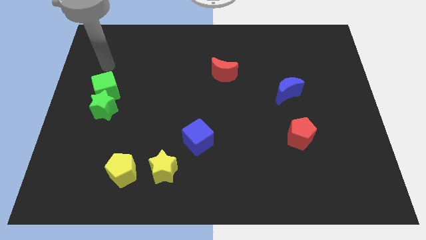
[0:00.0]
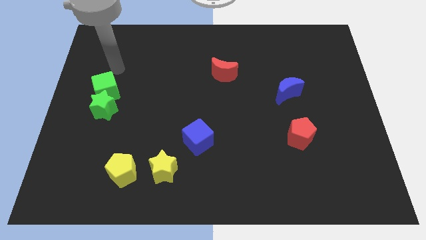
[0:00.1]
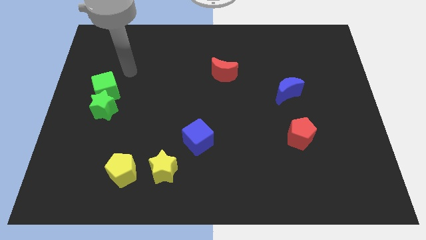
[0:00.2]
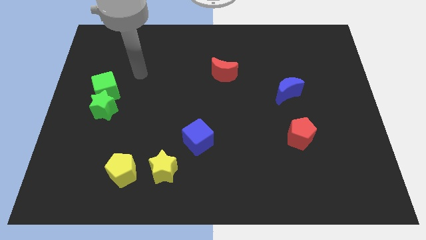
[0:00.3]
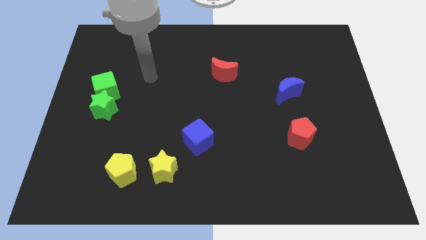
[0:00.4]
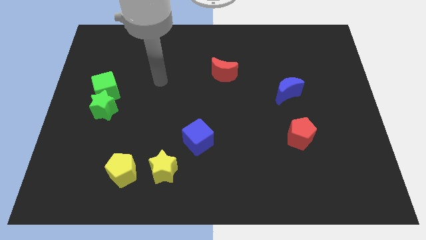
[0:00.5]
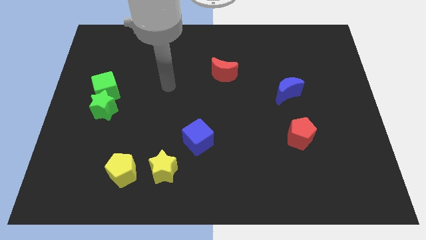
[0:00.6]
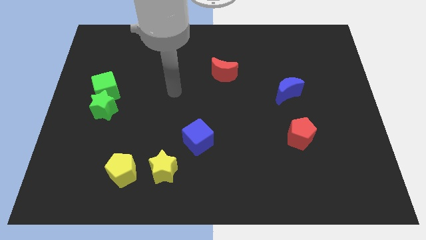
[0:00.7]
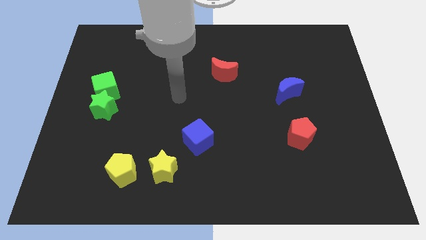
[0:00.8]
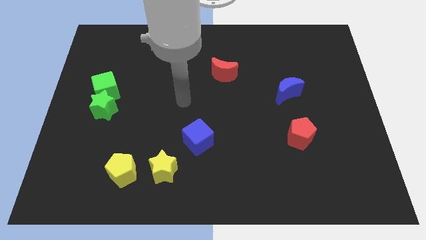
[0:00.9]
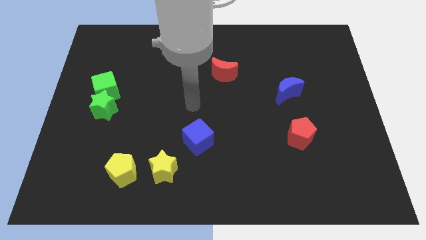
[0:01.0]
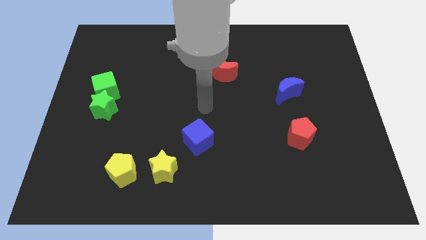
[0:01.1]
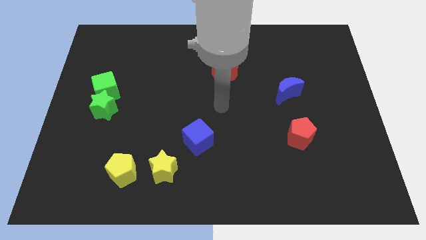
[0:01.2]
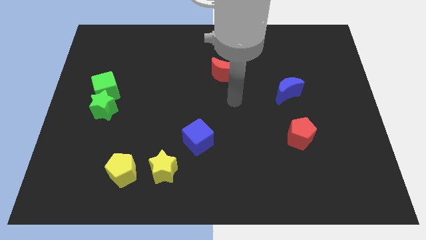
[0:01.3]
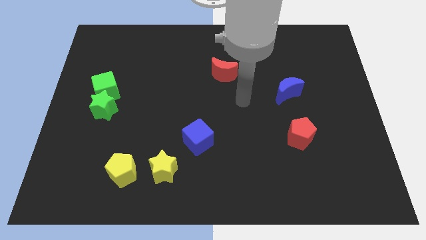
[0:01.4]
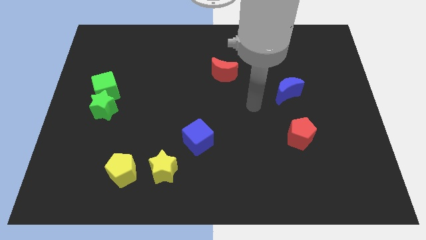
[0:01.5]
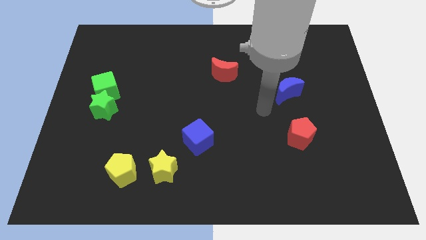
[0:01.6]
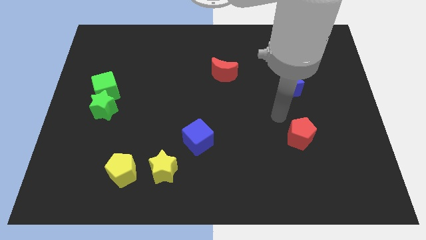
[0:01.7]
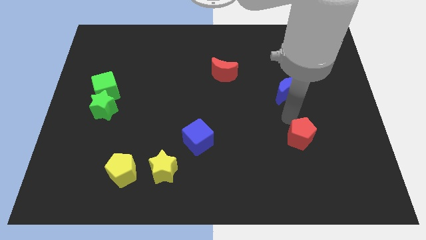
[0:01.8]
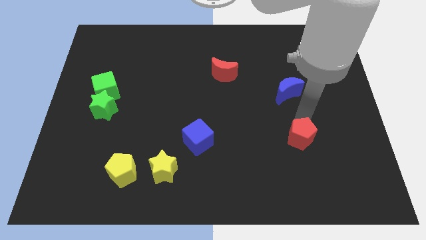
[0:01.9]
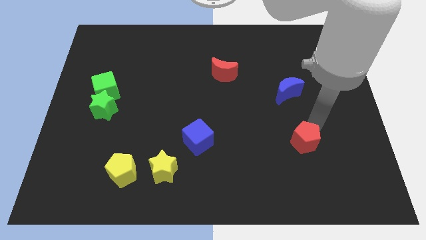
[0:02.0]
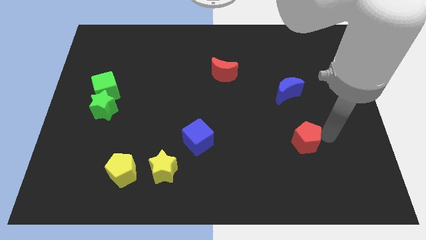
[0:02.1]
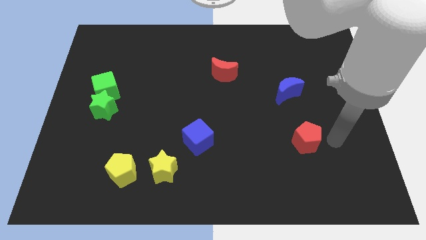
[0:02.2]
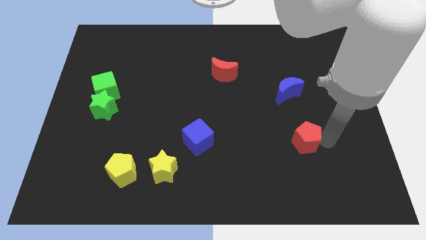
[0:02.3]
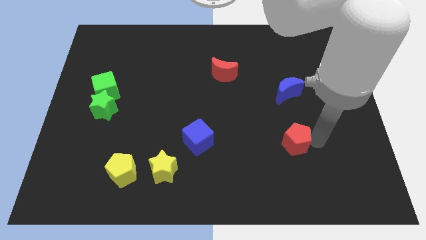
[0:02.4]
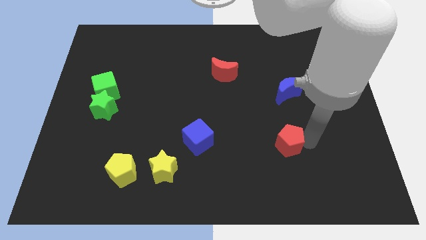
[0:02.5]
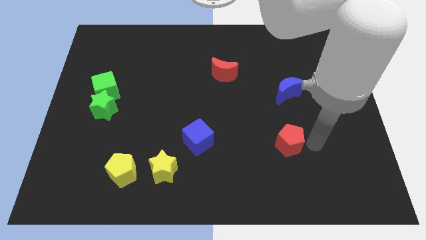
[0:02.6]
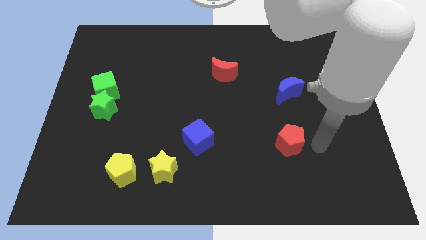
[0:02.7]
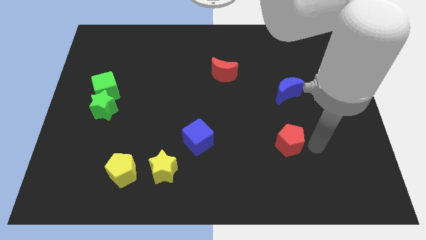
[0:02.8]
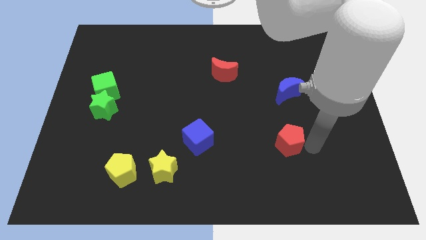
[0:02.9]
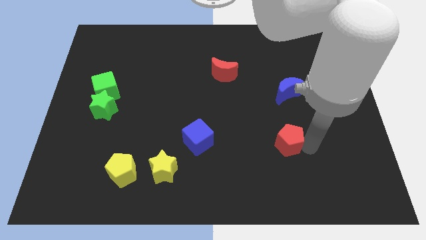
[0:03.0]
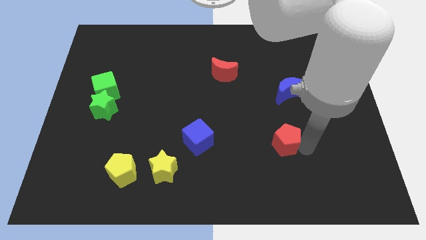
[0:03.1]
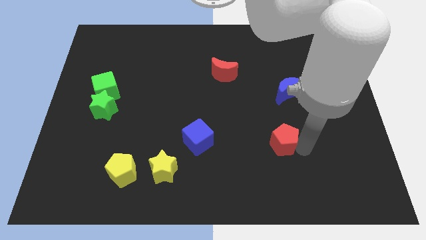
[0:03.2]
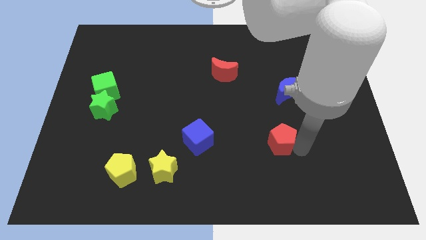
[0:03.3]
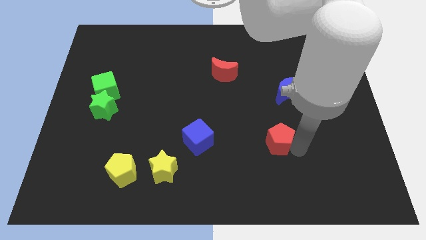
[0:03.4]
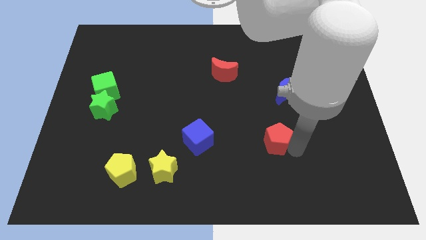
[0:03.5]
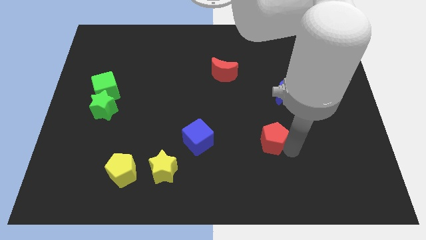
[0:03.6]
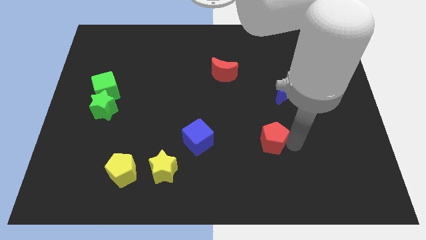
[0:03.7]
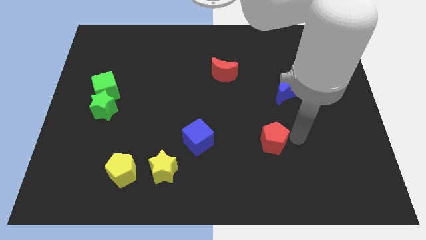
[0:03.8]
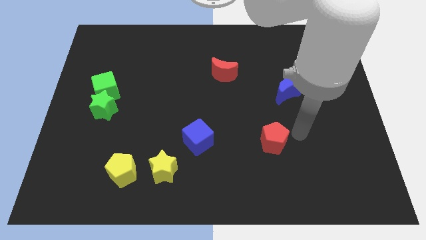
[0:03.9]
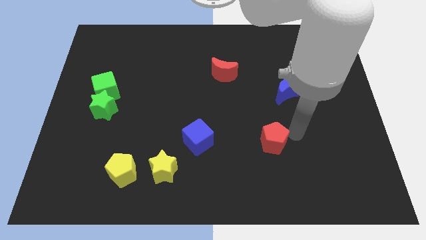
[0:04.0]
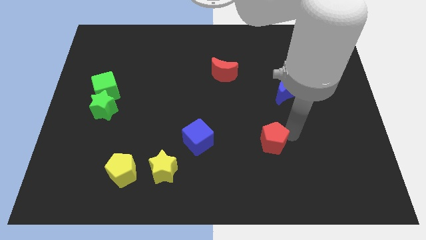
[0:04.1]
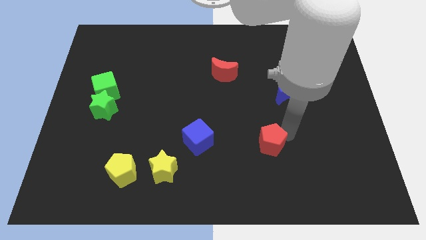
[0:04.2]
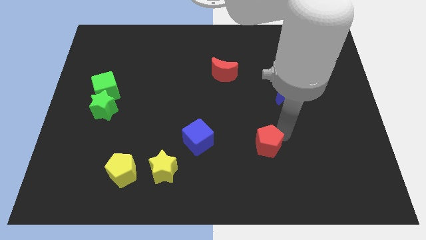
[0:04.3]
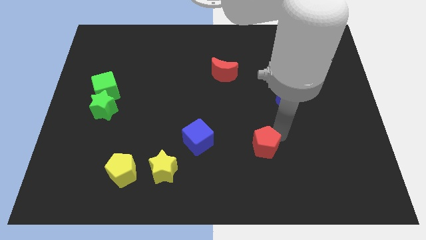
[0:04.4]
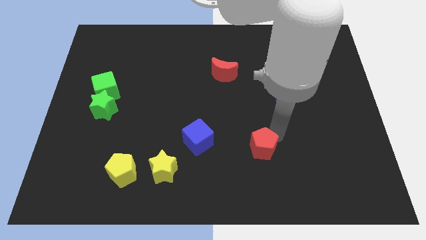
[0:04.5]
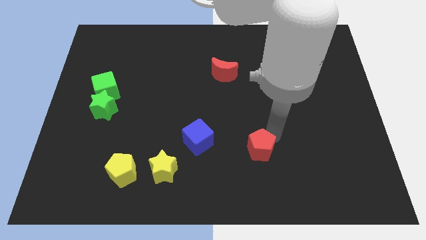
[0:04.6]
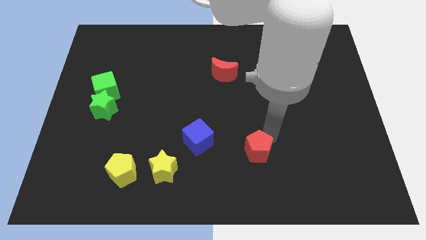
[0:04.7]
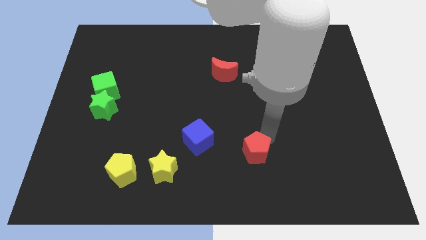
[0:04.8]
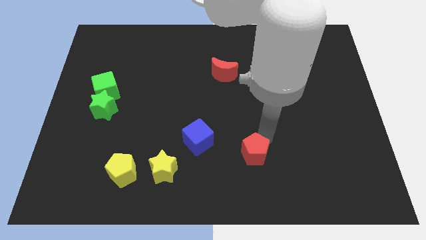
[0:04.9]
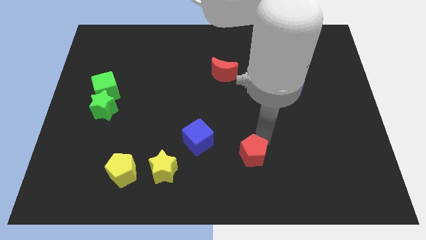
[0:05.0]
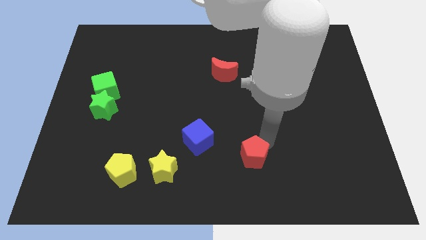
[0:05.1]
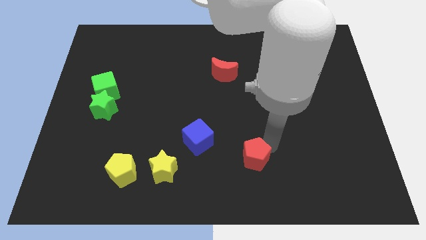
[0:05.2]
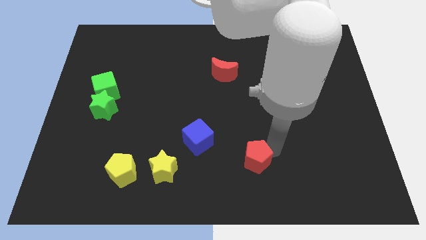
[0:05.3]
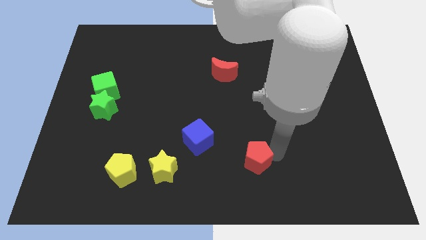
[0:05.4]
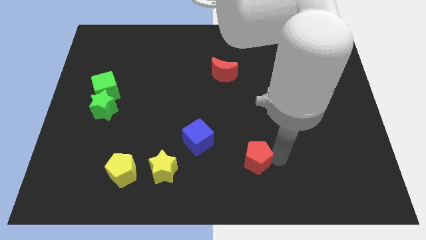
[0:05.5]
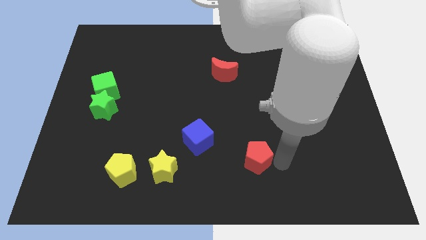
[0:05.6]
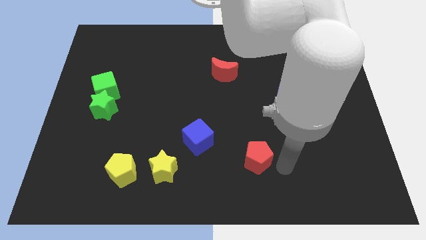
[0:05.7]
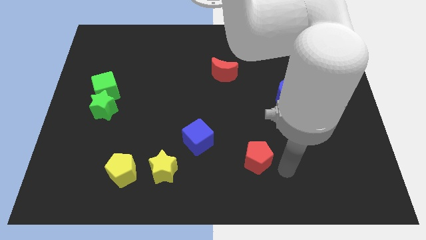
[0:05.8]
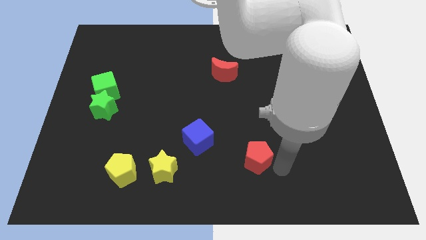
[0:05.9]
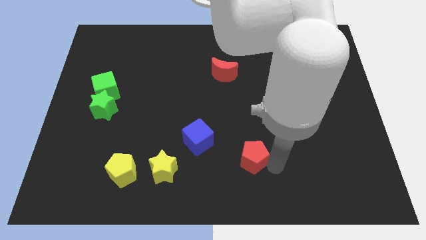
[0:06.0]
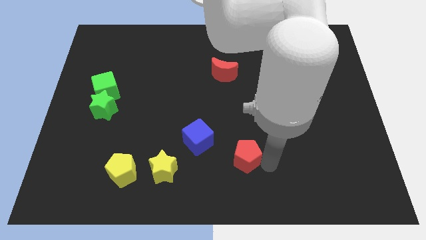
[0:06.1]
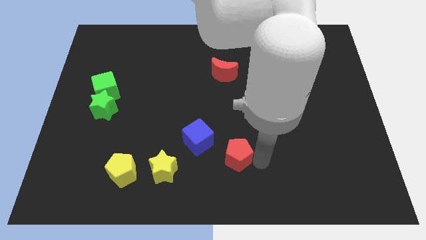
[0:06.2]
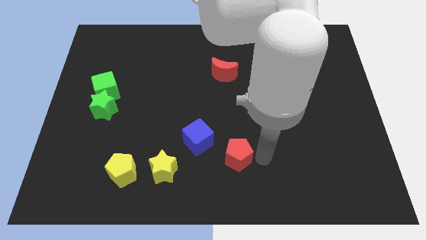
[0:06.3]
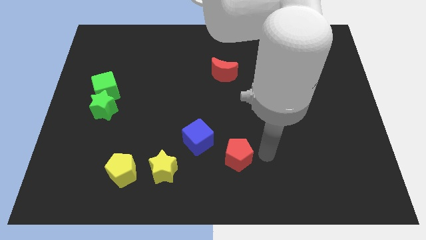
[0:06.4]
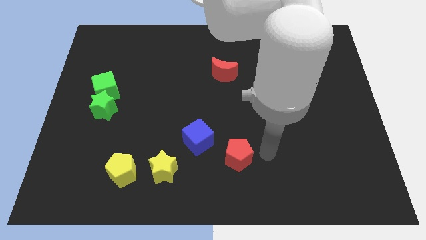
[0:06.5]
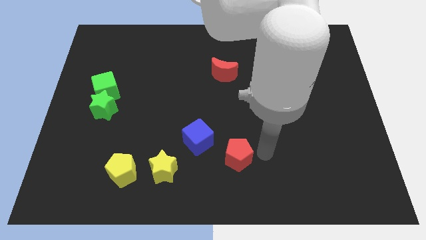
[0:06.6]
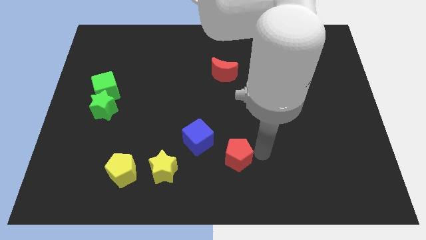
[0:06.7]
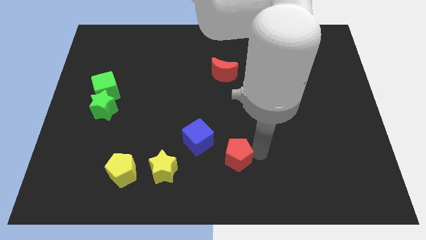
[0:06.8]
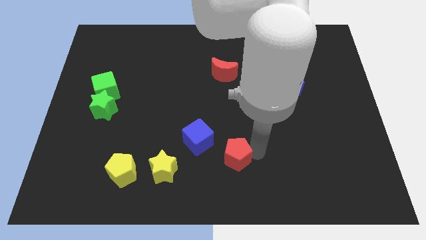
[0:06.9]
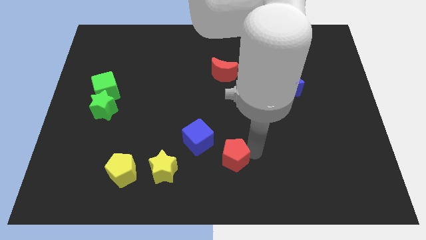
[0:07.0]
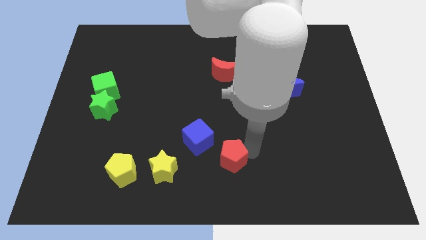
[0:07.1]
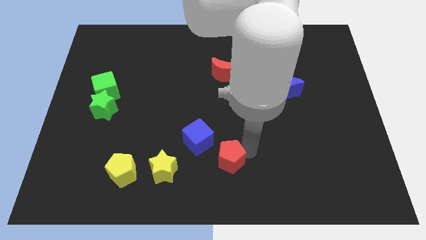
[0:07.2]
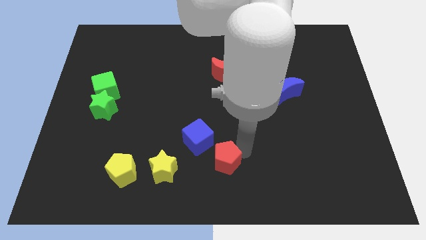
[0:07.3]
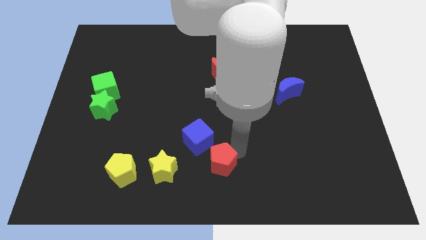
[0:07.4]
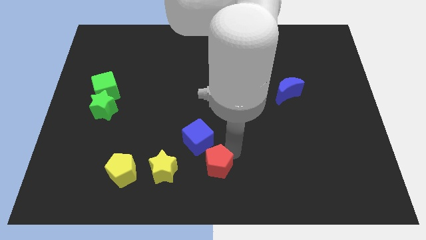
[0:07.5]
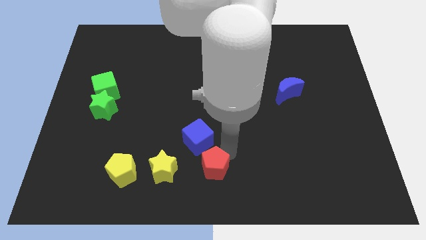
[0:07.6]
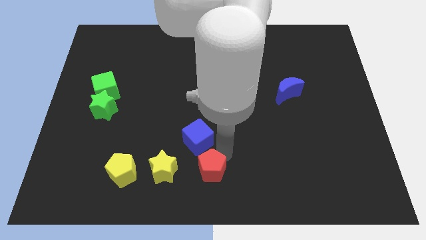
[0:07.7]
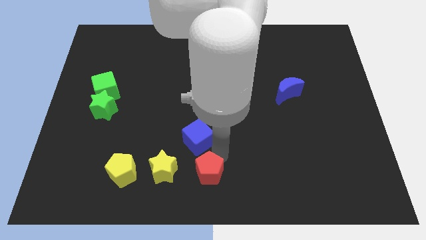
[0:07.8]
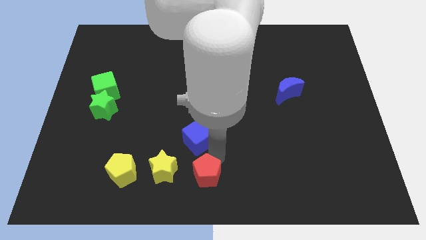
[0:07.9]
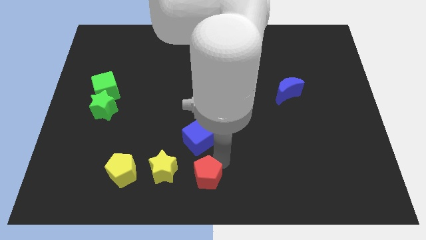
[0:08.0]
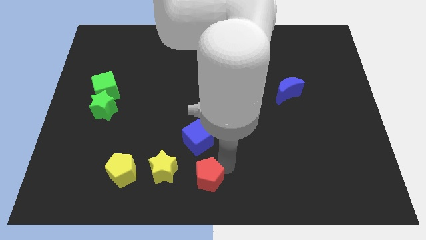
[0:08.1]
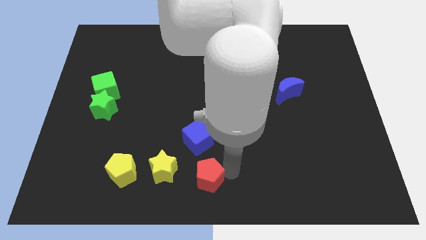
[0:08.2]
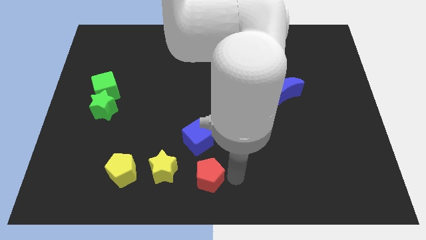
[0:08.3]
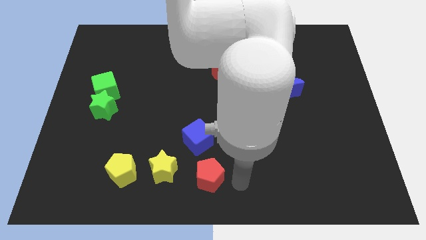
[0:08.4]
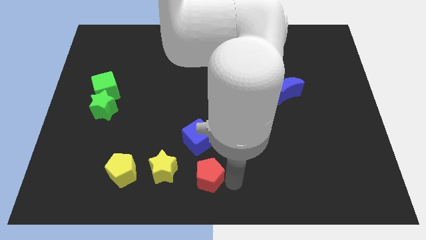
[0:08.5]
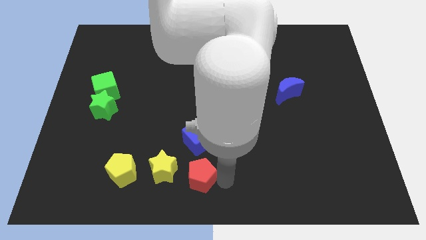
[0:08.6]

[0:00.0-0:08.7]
slide the red pentagon to the right of the yellow pentagon
